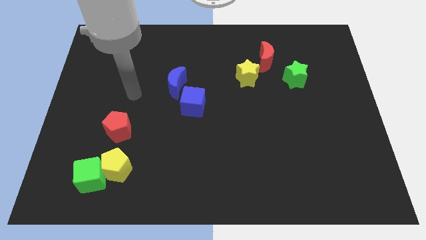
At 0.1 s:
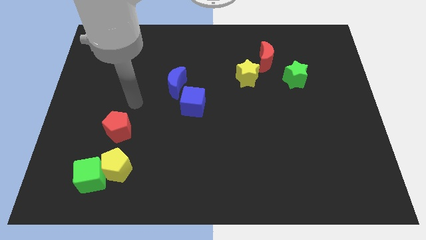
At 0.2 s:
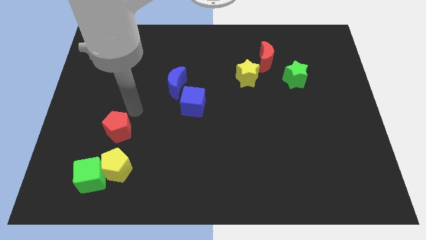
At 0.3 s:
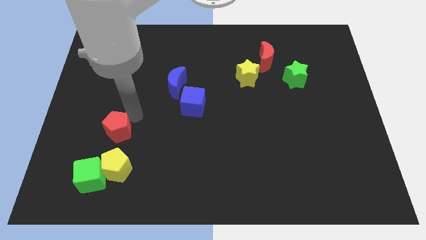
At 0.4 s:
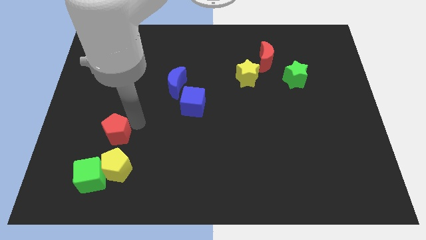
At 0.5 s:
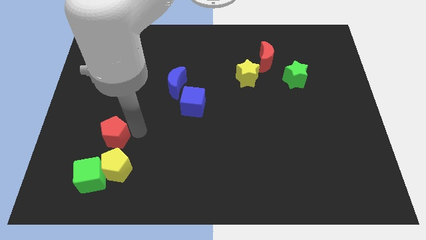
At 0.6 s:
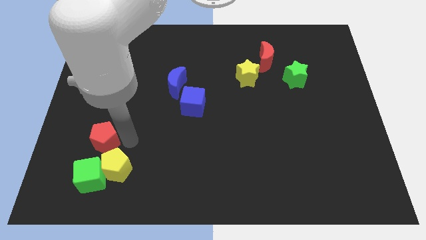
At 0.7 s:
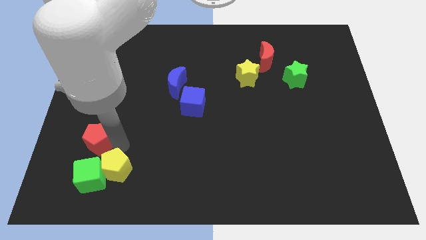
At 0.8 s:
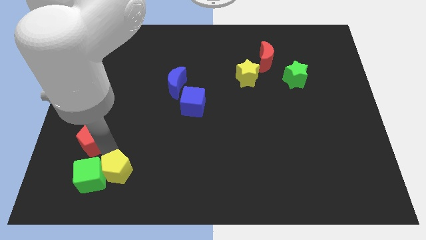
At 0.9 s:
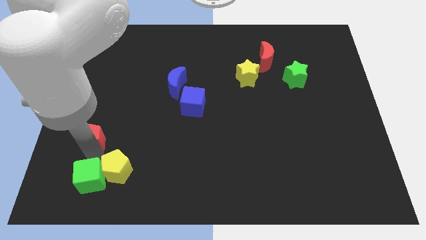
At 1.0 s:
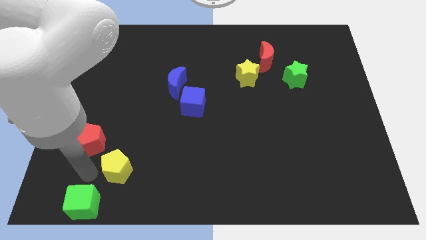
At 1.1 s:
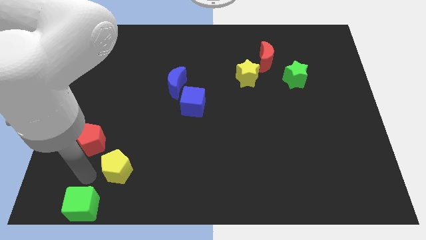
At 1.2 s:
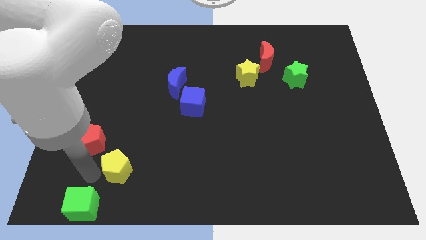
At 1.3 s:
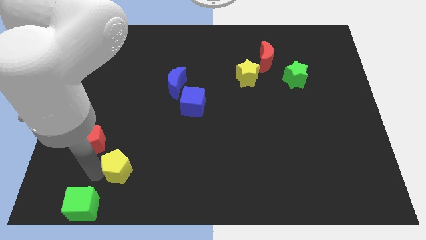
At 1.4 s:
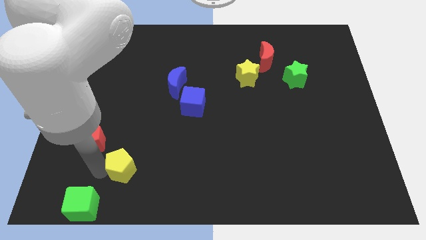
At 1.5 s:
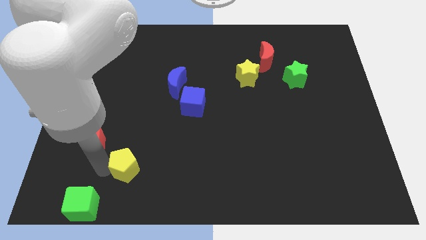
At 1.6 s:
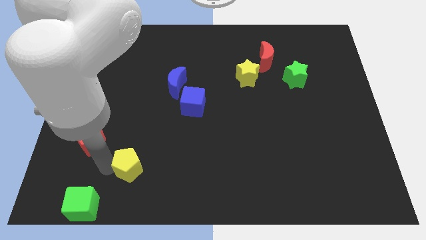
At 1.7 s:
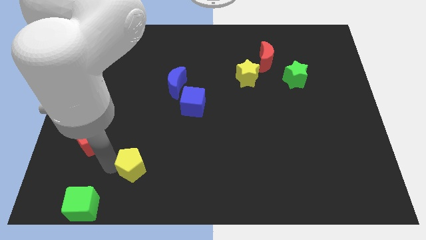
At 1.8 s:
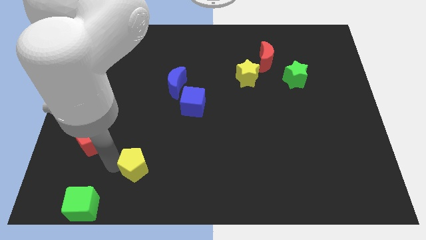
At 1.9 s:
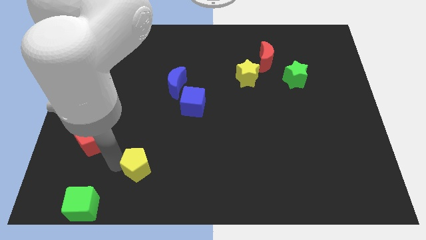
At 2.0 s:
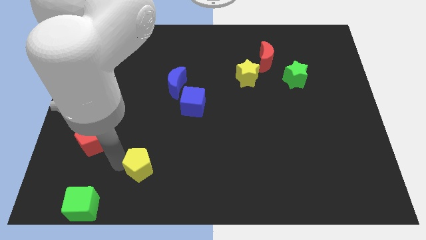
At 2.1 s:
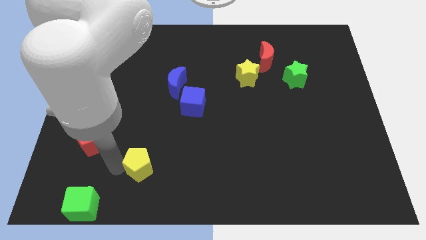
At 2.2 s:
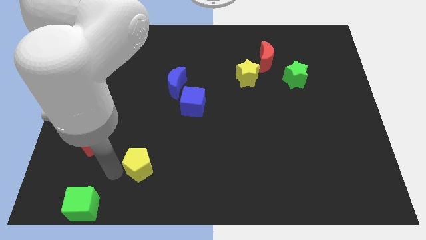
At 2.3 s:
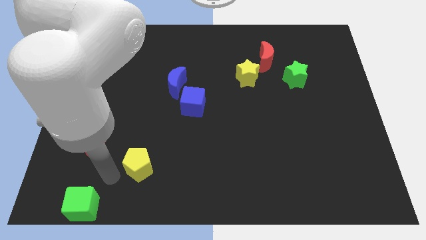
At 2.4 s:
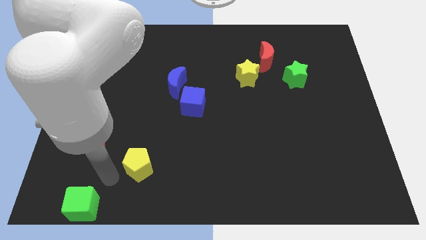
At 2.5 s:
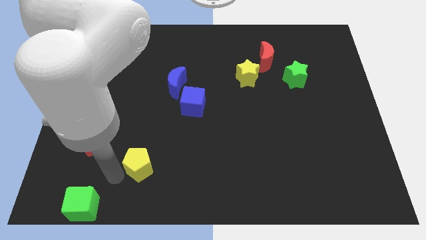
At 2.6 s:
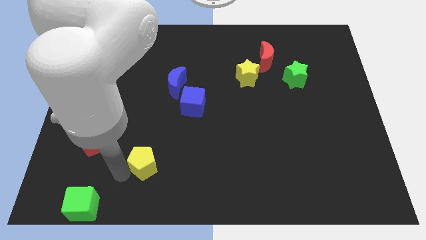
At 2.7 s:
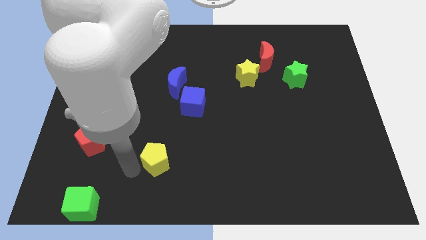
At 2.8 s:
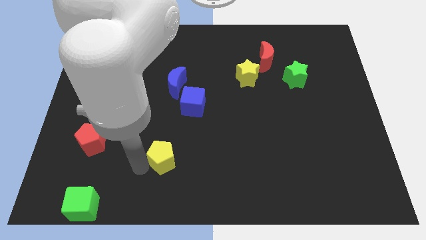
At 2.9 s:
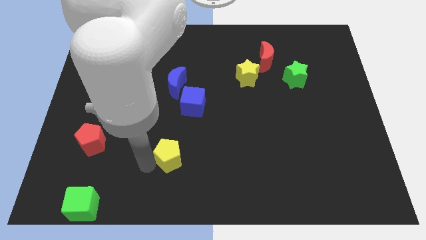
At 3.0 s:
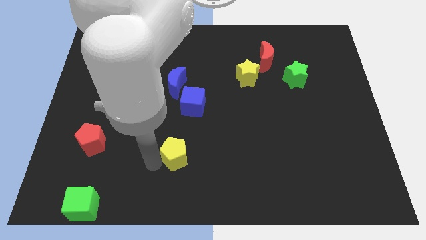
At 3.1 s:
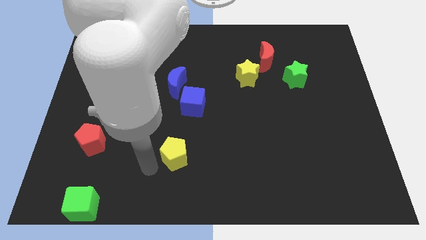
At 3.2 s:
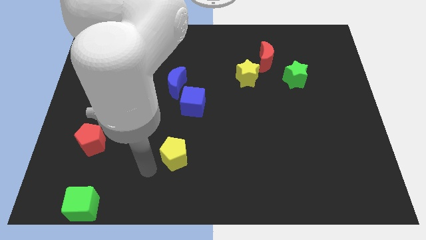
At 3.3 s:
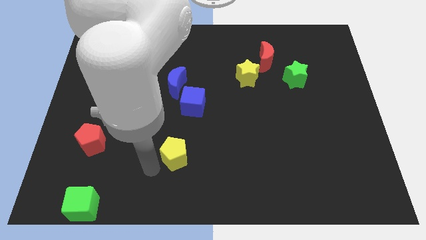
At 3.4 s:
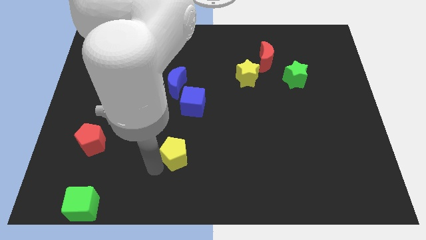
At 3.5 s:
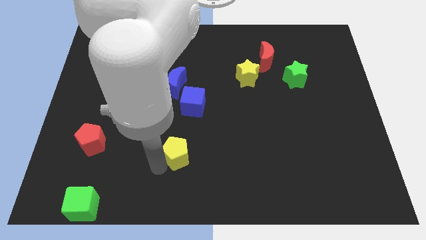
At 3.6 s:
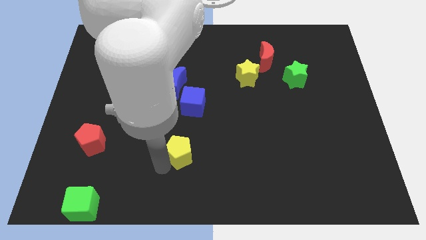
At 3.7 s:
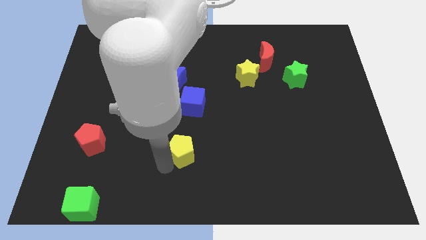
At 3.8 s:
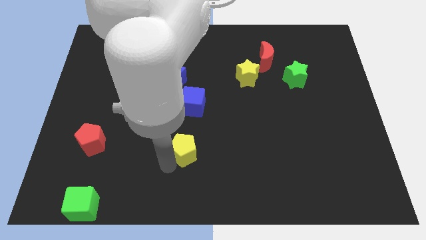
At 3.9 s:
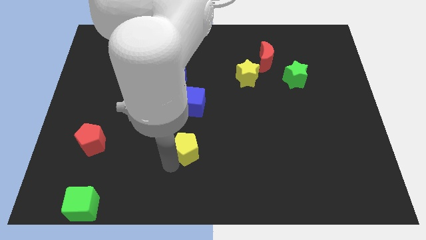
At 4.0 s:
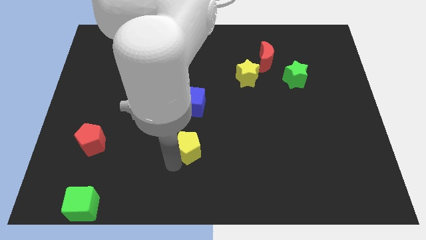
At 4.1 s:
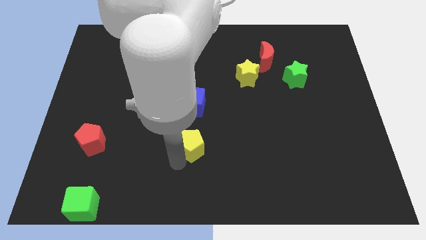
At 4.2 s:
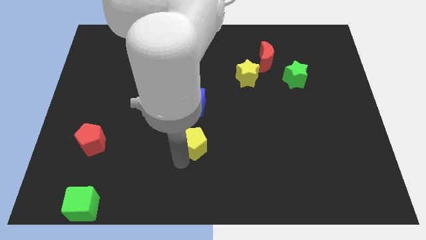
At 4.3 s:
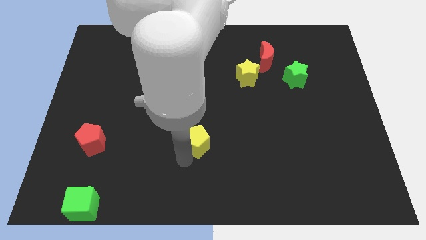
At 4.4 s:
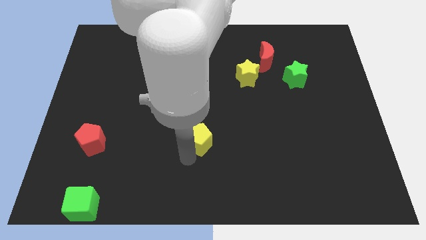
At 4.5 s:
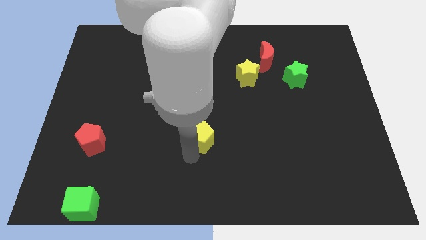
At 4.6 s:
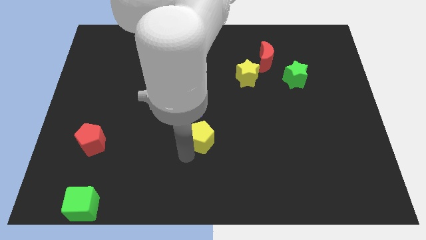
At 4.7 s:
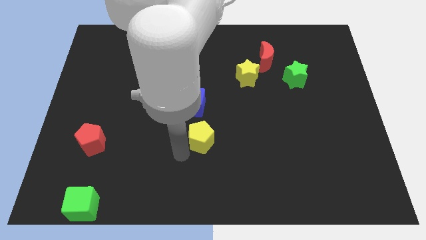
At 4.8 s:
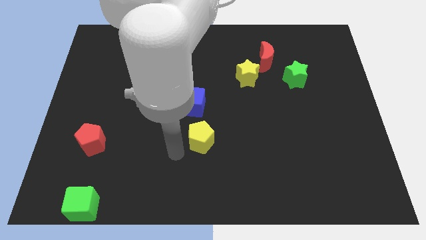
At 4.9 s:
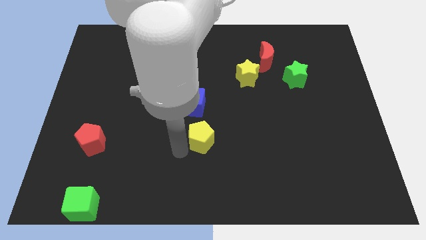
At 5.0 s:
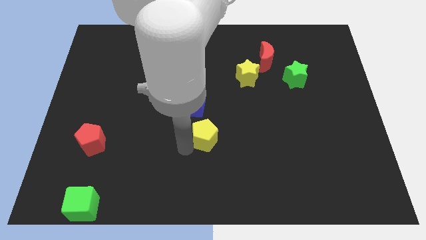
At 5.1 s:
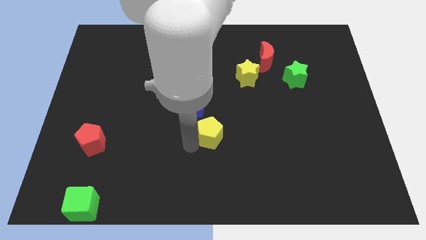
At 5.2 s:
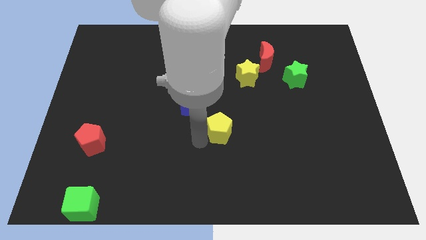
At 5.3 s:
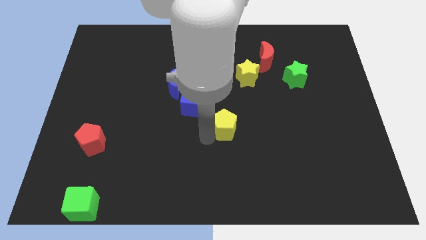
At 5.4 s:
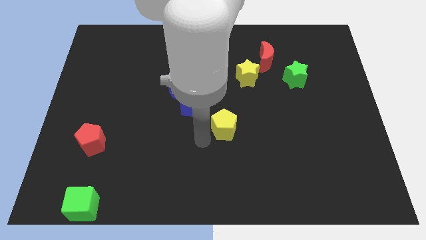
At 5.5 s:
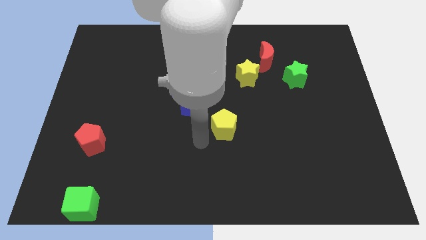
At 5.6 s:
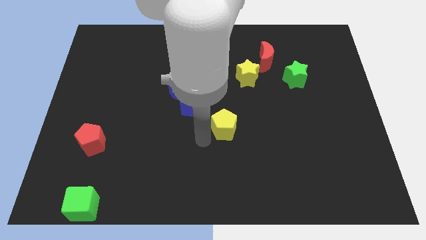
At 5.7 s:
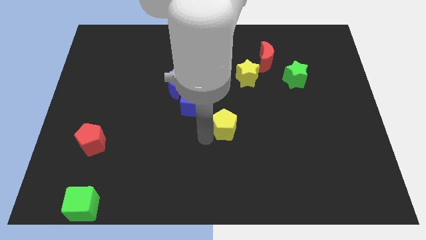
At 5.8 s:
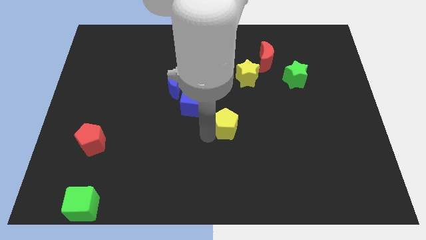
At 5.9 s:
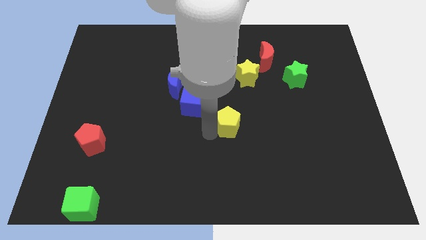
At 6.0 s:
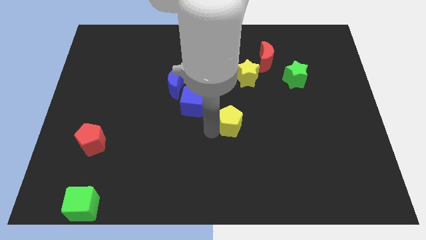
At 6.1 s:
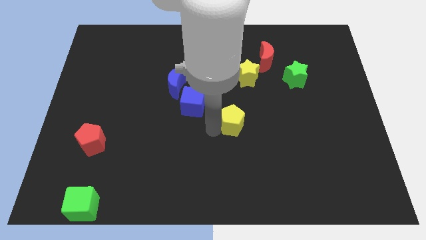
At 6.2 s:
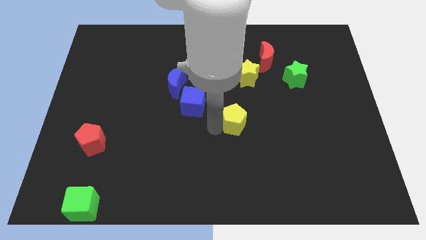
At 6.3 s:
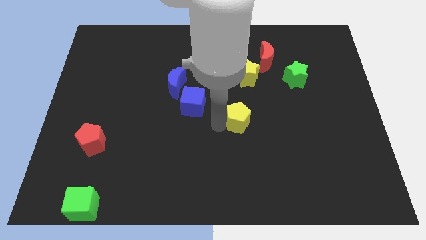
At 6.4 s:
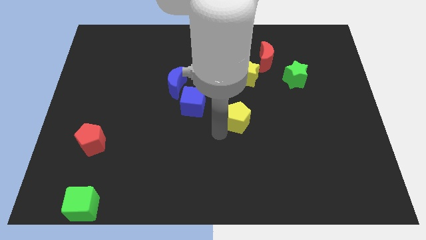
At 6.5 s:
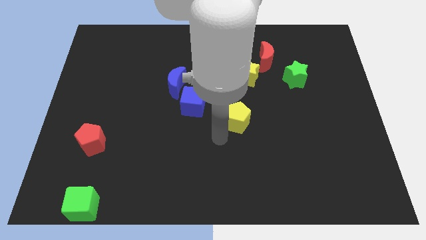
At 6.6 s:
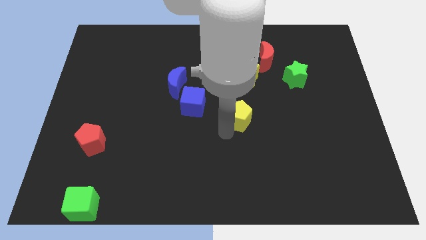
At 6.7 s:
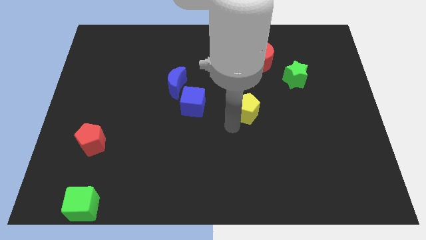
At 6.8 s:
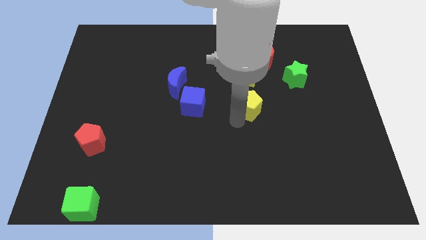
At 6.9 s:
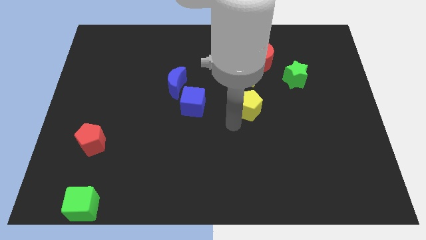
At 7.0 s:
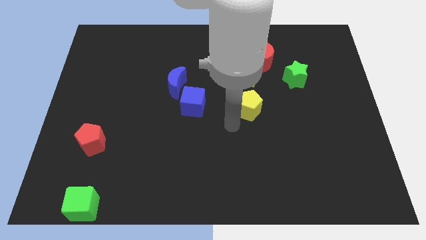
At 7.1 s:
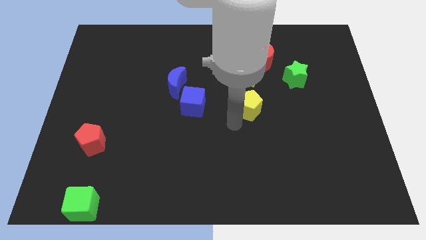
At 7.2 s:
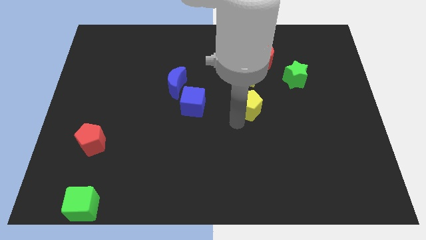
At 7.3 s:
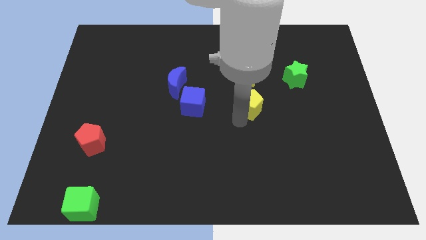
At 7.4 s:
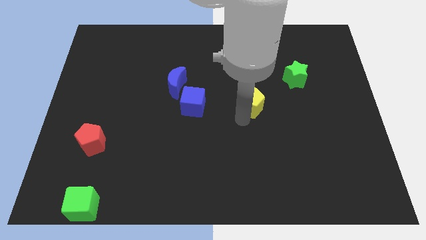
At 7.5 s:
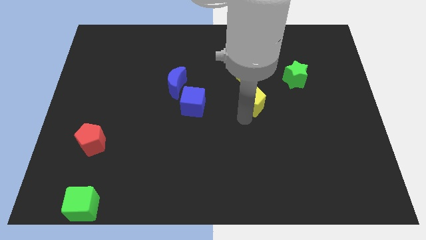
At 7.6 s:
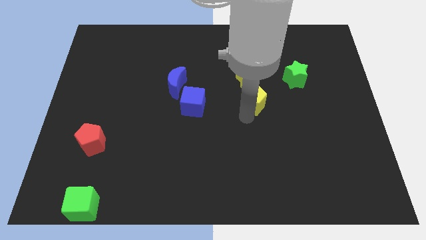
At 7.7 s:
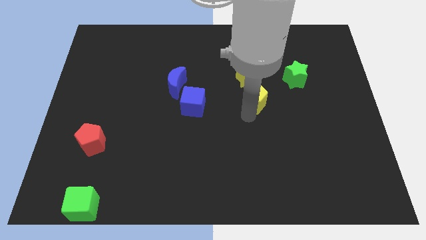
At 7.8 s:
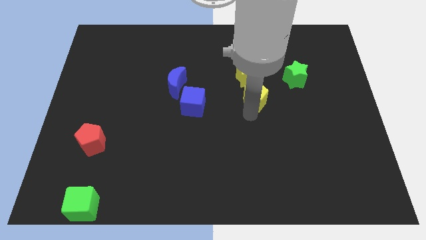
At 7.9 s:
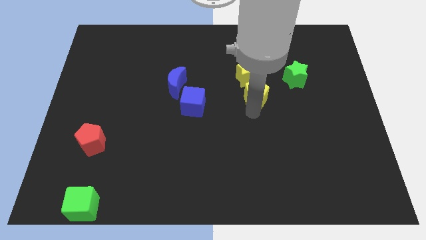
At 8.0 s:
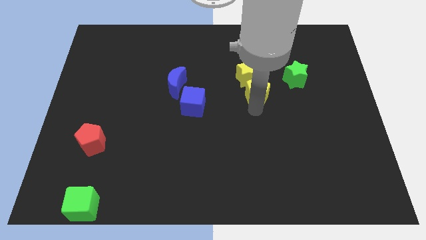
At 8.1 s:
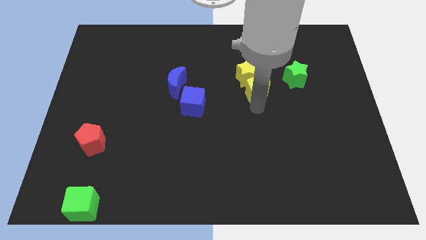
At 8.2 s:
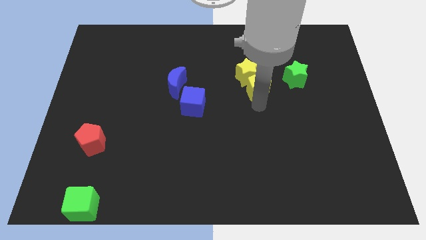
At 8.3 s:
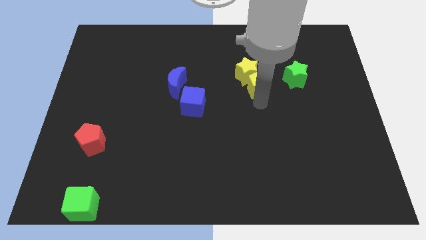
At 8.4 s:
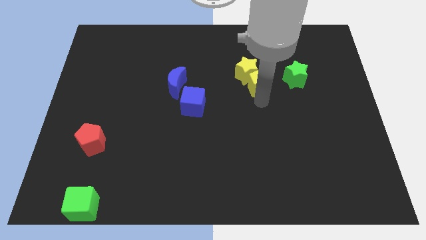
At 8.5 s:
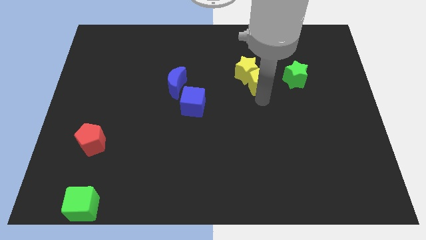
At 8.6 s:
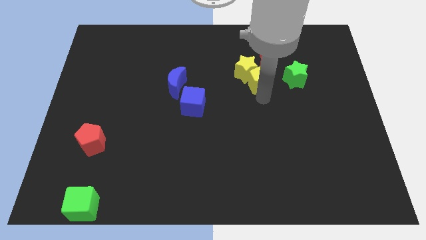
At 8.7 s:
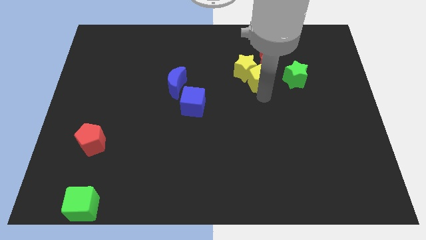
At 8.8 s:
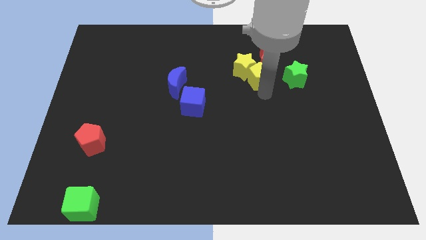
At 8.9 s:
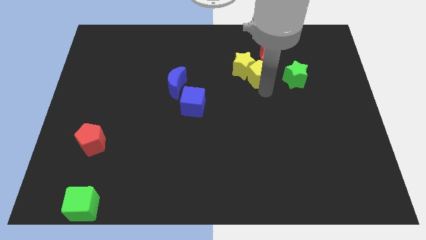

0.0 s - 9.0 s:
put the yellow pentagon close to the red moon
